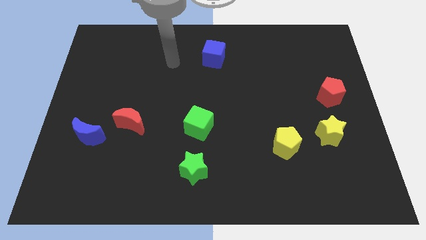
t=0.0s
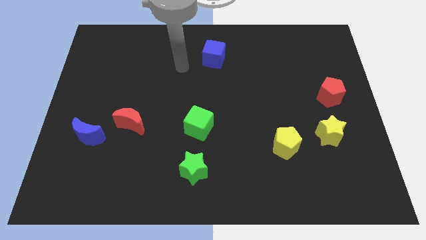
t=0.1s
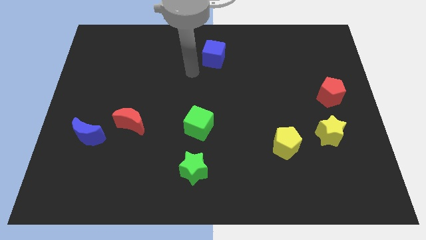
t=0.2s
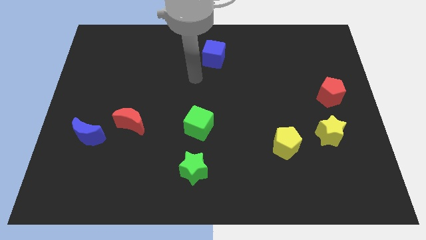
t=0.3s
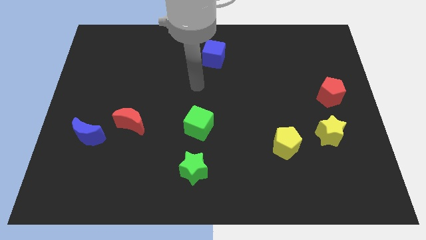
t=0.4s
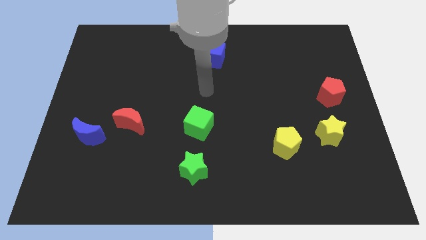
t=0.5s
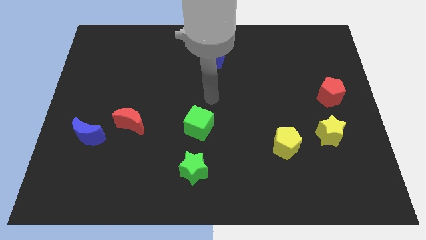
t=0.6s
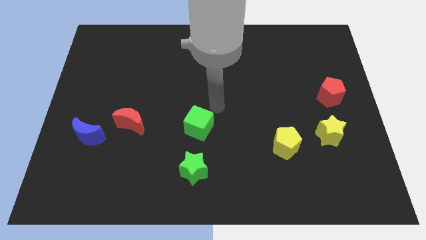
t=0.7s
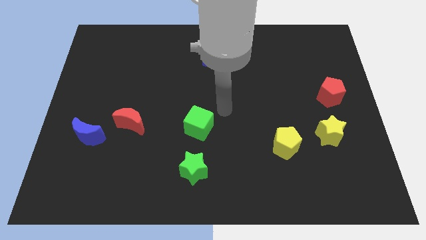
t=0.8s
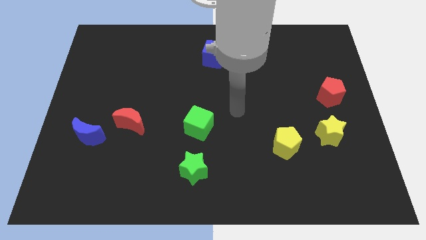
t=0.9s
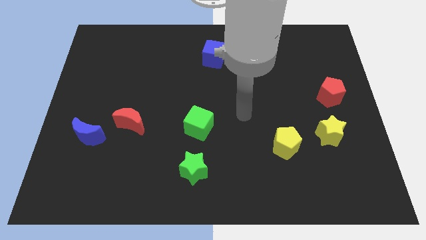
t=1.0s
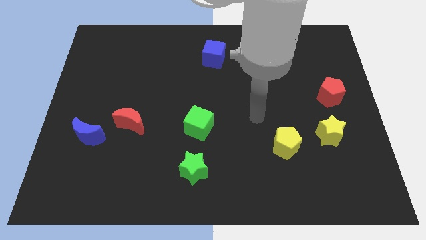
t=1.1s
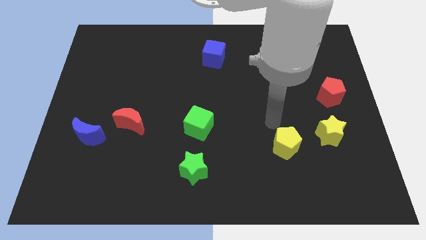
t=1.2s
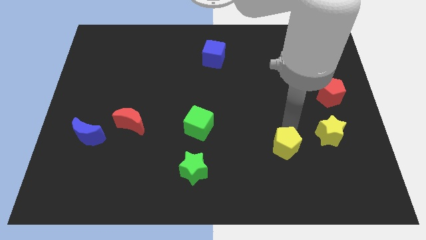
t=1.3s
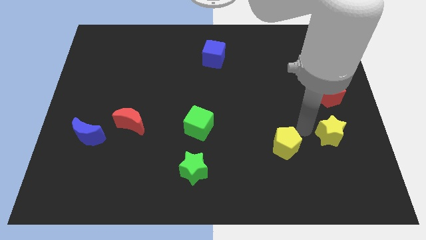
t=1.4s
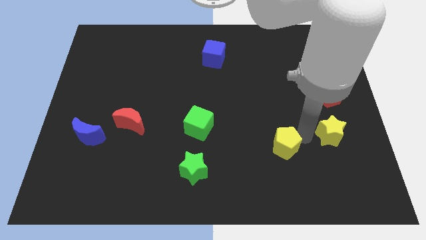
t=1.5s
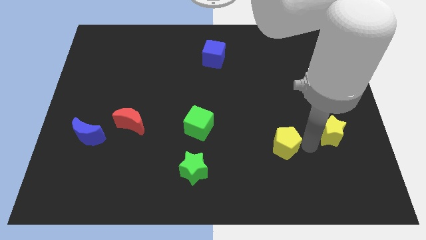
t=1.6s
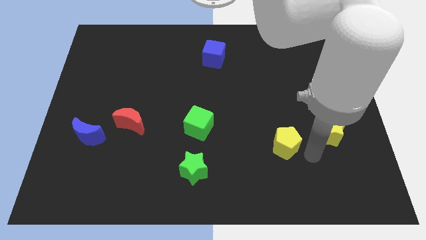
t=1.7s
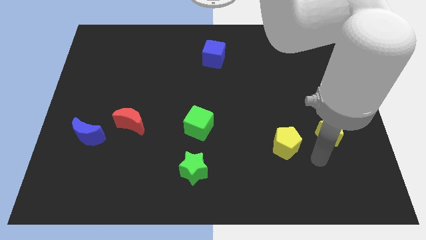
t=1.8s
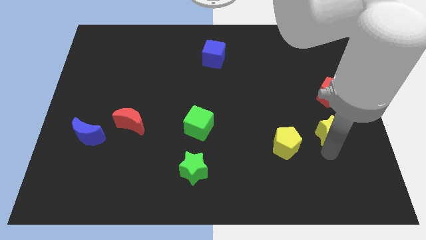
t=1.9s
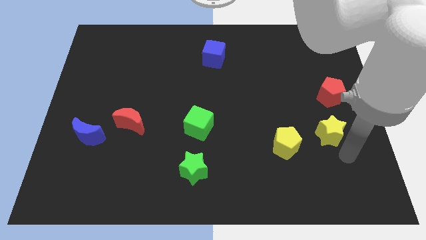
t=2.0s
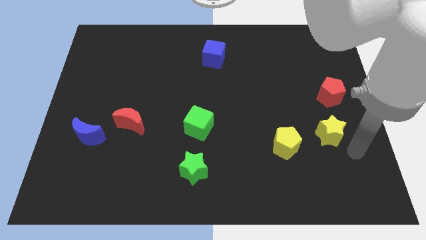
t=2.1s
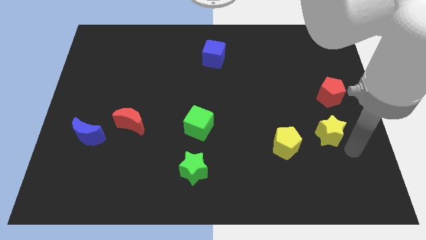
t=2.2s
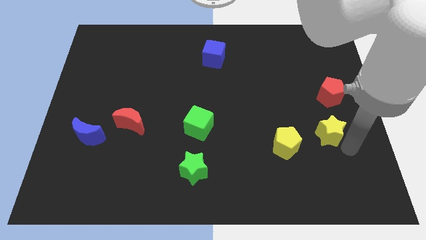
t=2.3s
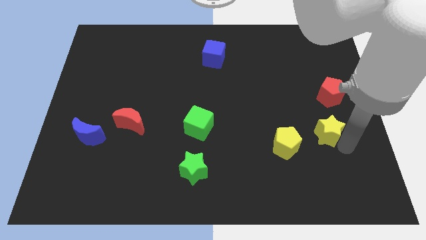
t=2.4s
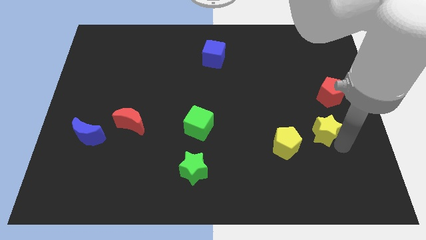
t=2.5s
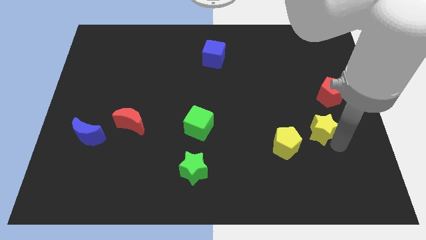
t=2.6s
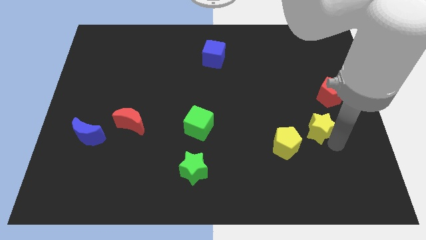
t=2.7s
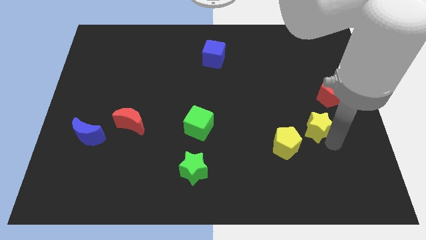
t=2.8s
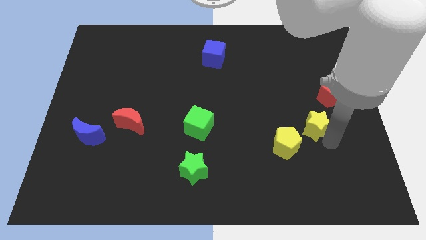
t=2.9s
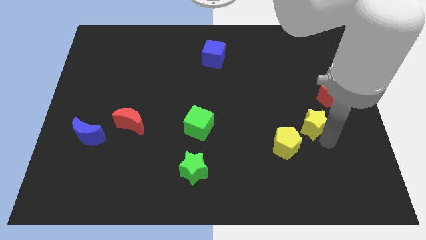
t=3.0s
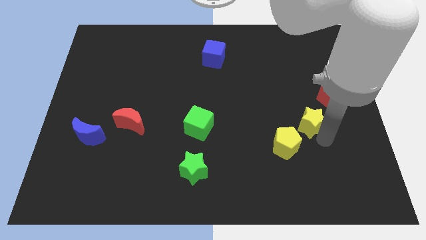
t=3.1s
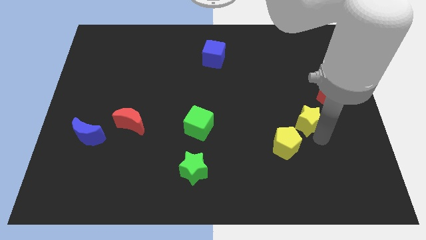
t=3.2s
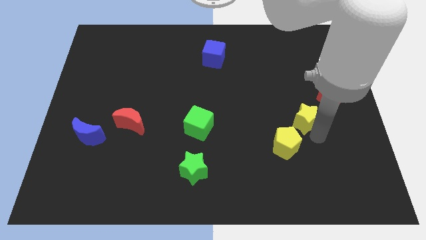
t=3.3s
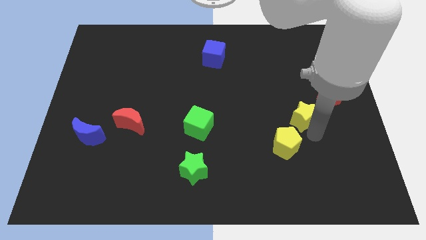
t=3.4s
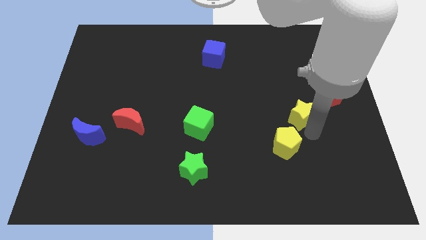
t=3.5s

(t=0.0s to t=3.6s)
slightly push the yellow star up and then left

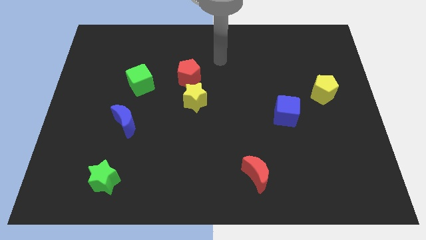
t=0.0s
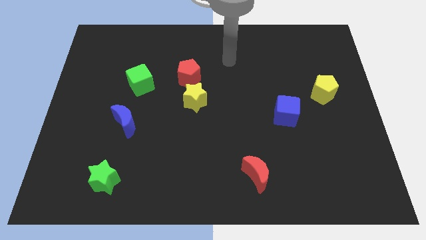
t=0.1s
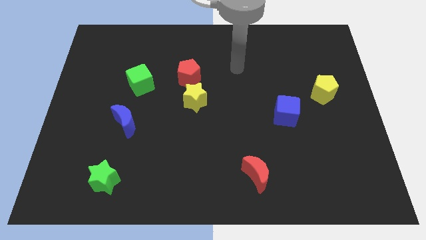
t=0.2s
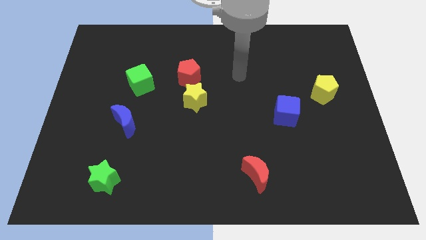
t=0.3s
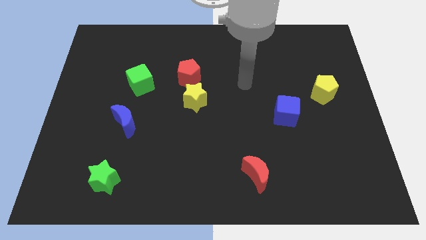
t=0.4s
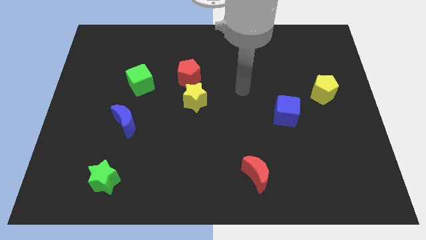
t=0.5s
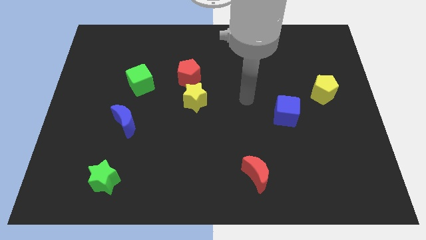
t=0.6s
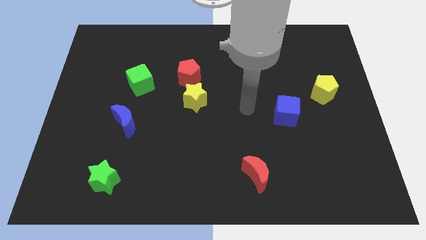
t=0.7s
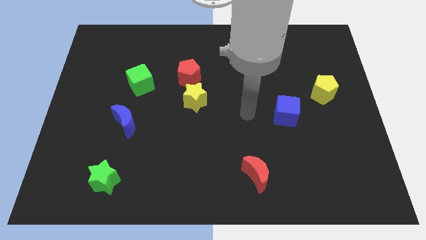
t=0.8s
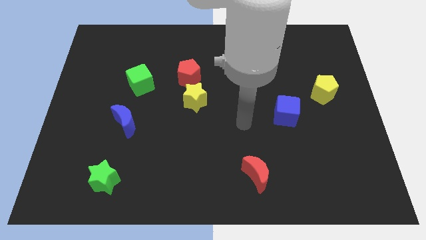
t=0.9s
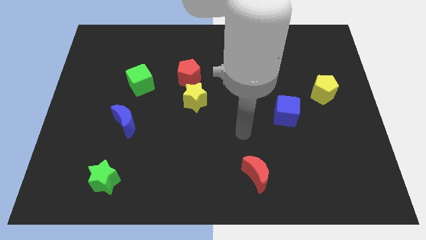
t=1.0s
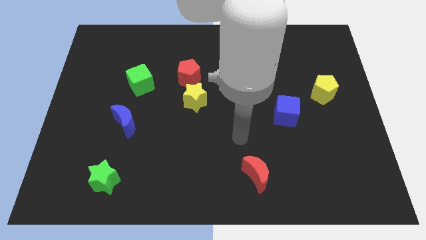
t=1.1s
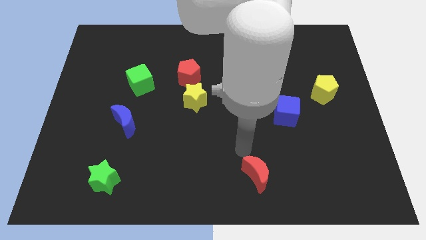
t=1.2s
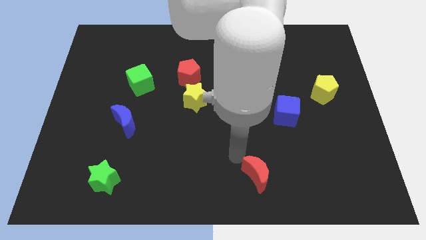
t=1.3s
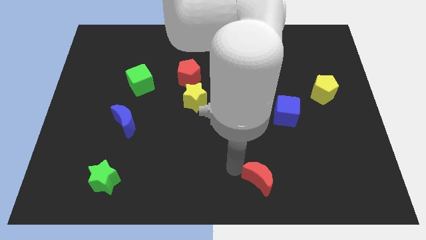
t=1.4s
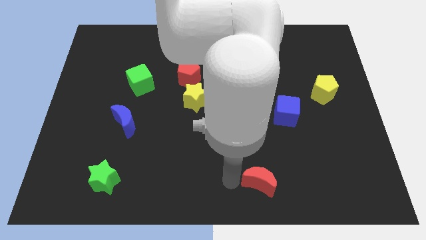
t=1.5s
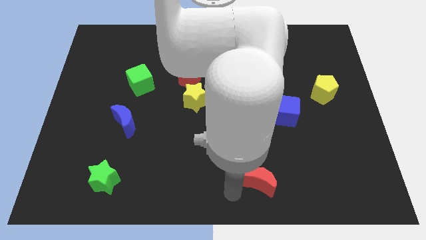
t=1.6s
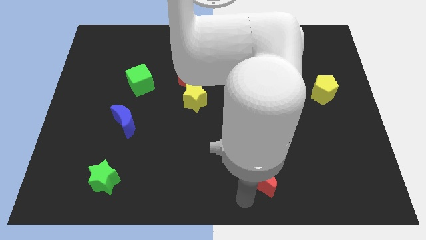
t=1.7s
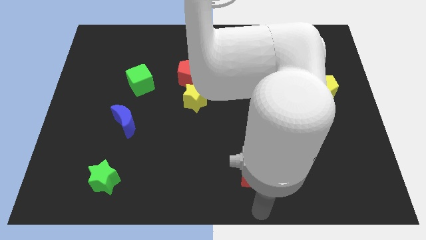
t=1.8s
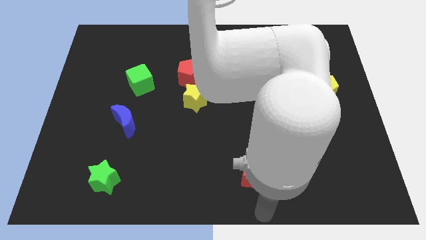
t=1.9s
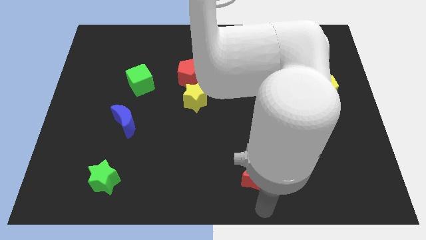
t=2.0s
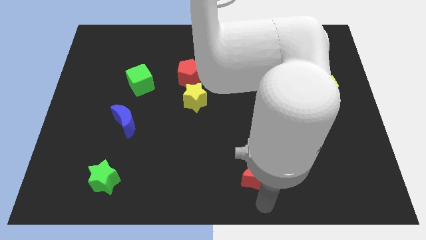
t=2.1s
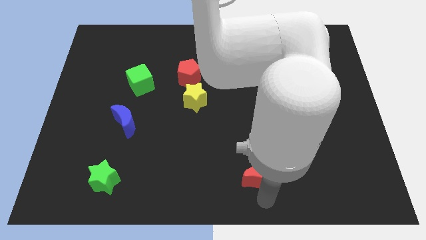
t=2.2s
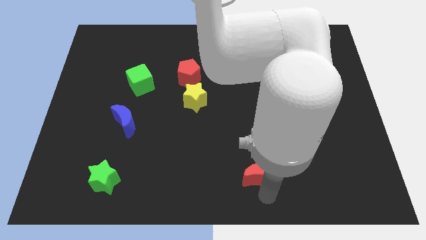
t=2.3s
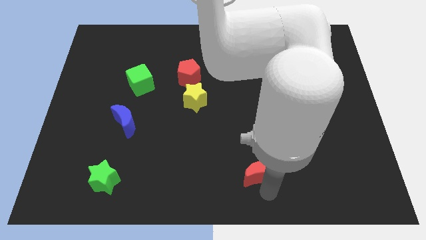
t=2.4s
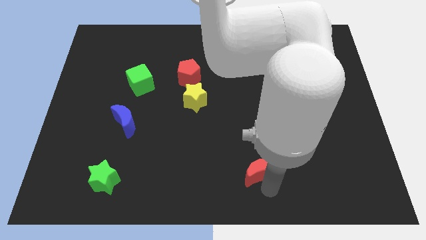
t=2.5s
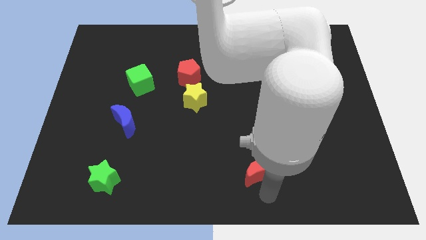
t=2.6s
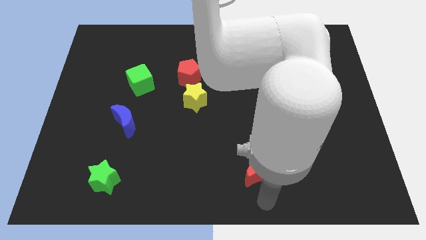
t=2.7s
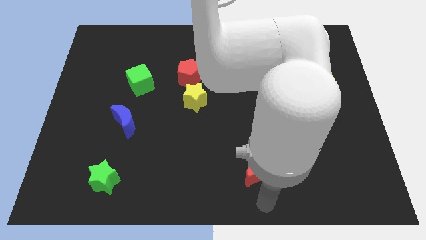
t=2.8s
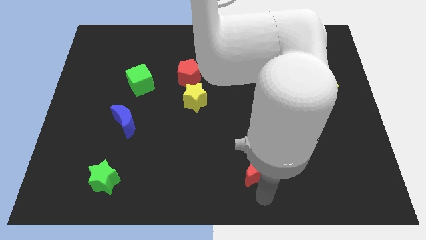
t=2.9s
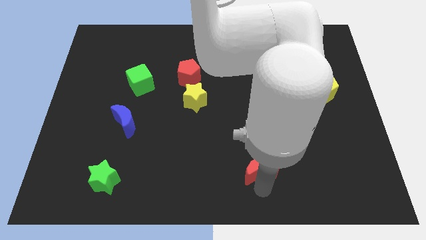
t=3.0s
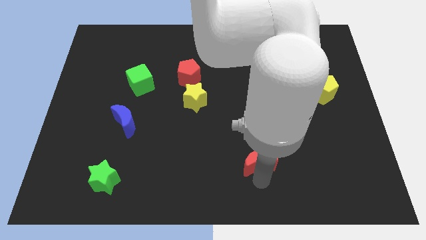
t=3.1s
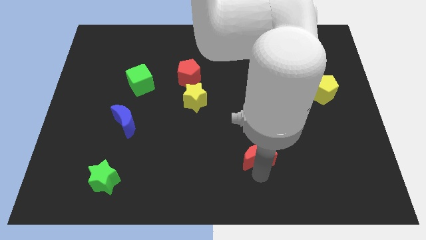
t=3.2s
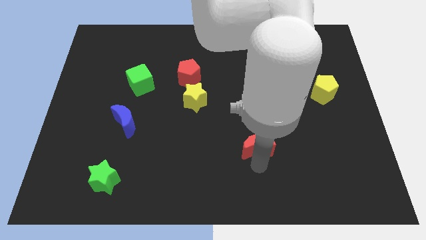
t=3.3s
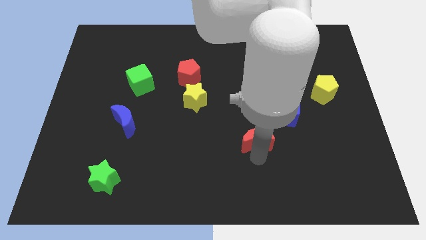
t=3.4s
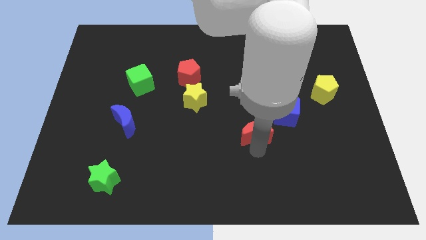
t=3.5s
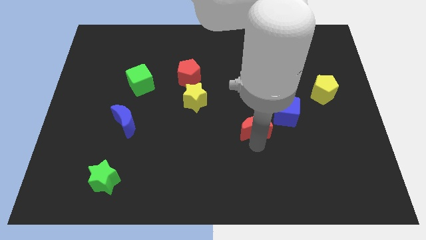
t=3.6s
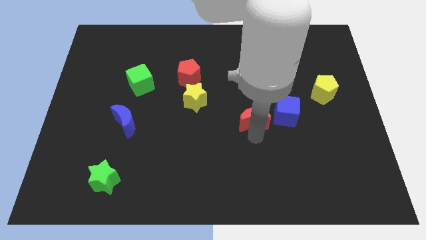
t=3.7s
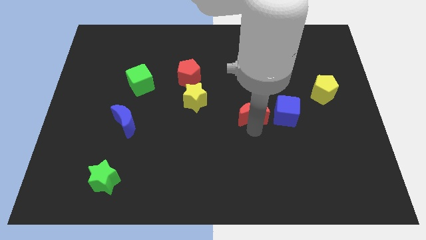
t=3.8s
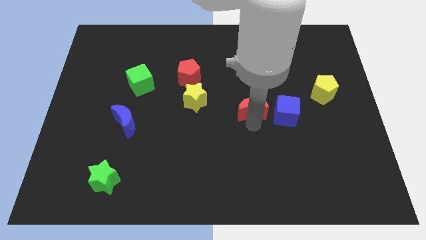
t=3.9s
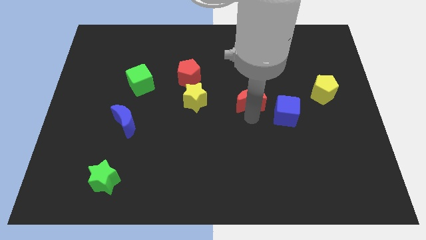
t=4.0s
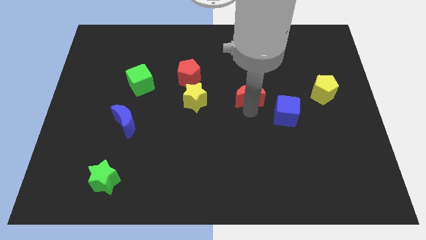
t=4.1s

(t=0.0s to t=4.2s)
slide the red moon up

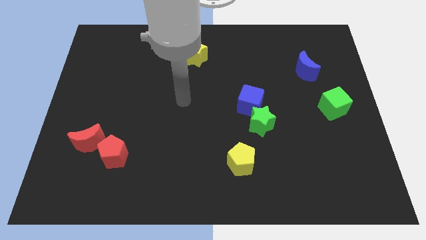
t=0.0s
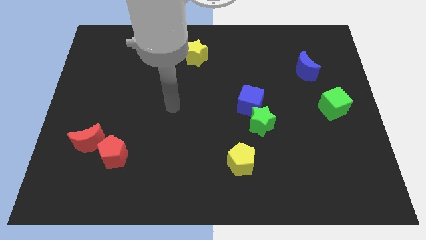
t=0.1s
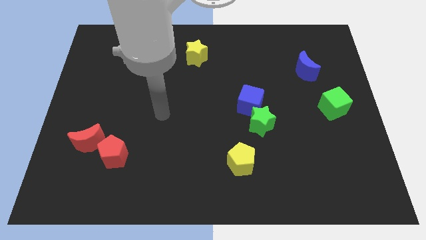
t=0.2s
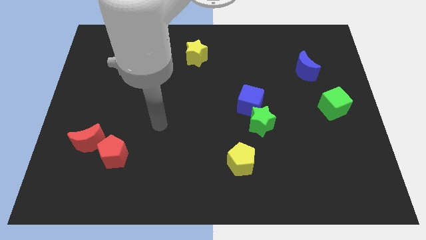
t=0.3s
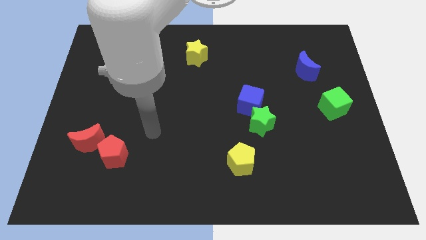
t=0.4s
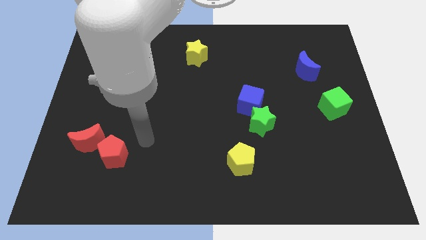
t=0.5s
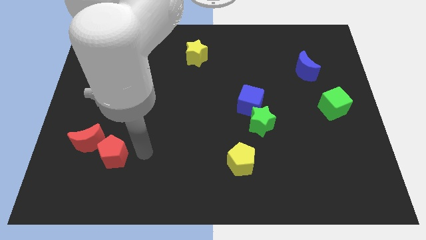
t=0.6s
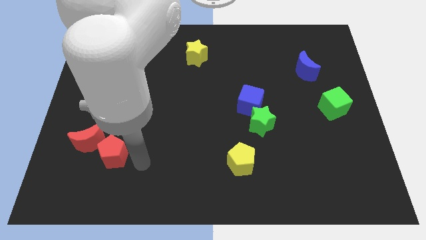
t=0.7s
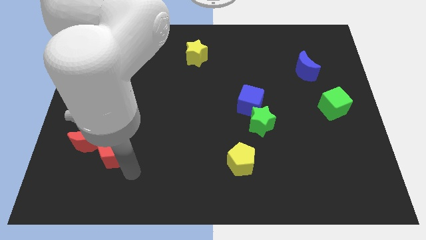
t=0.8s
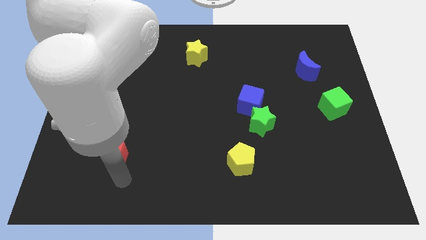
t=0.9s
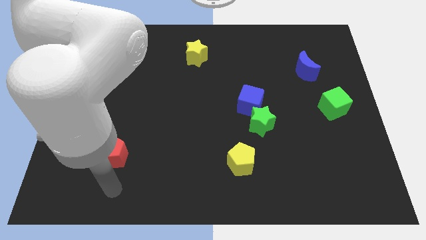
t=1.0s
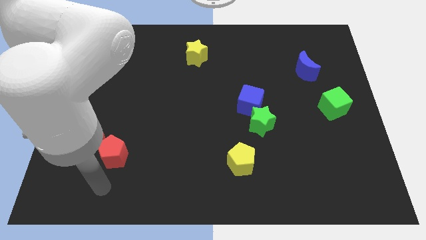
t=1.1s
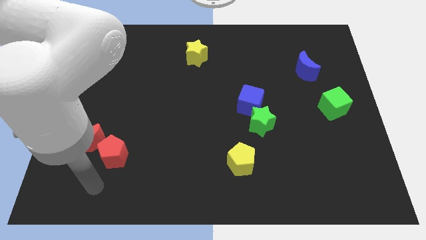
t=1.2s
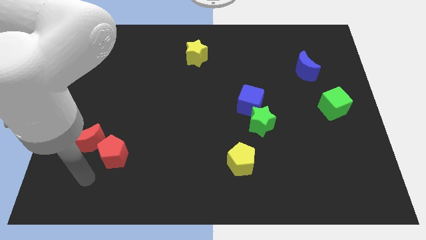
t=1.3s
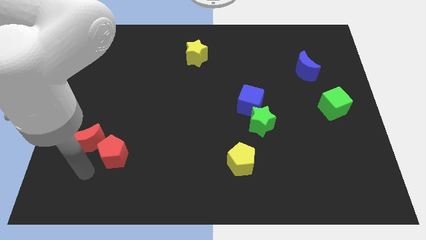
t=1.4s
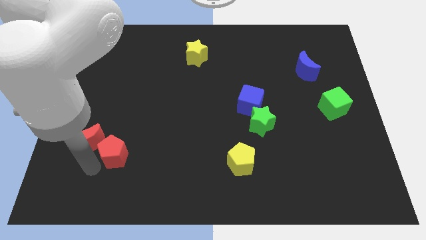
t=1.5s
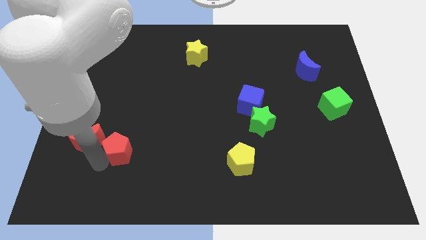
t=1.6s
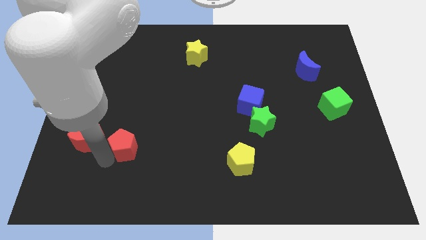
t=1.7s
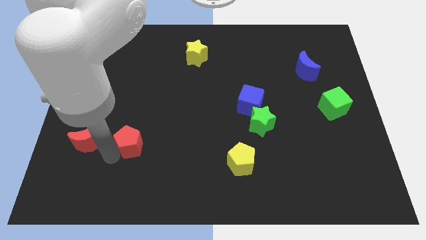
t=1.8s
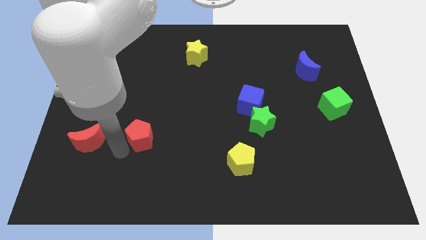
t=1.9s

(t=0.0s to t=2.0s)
slightly move the red pentagon diagonally upwards and to the right
